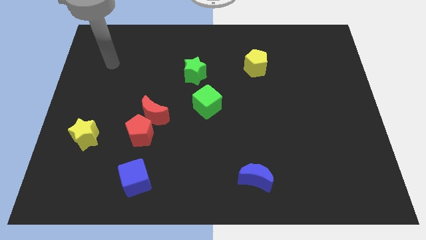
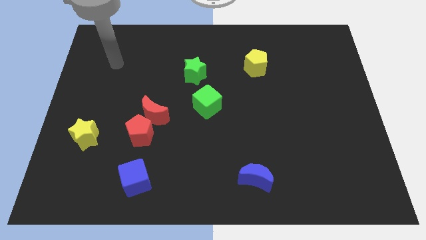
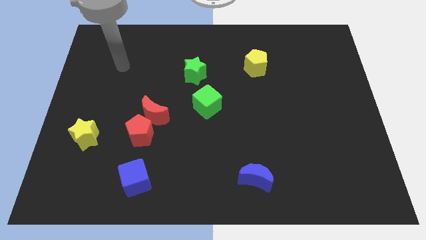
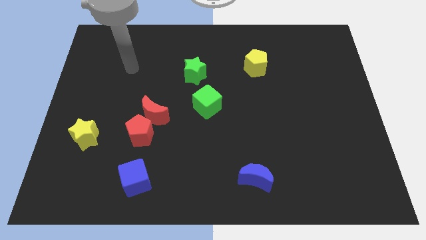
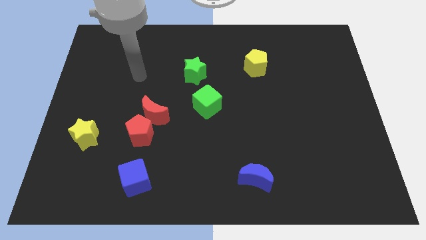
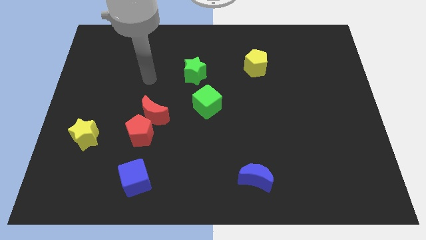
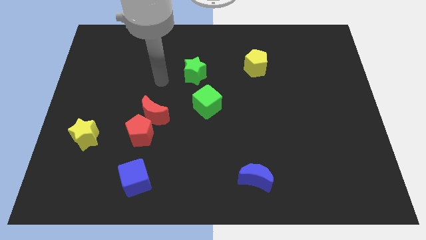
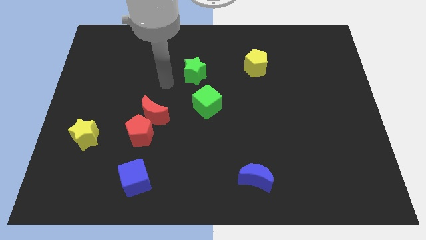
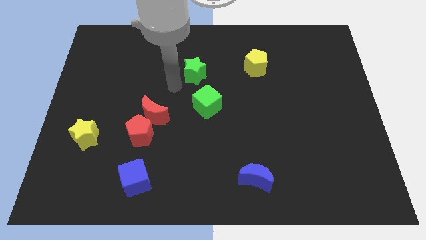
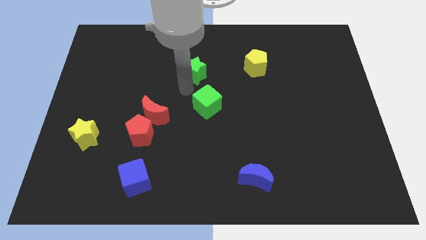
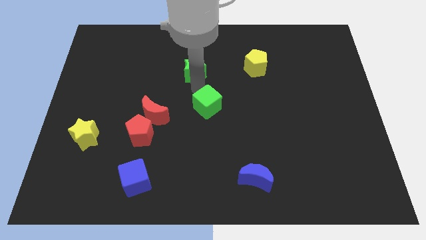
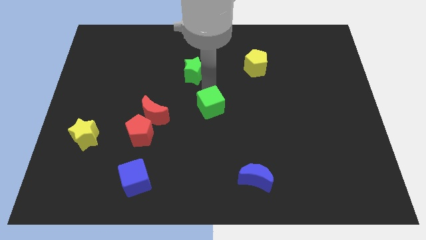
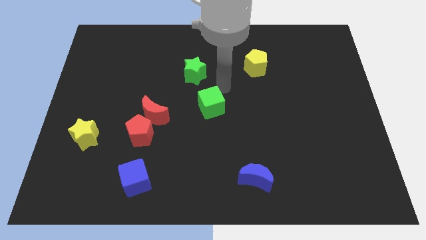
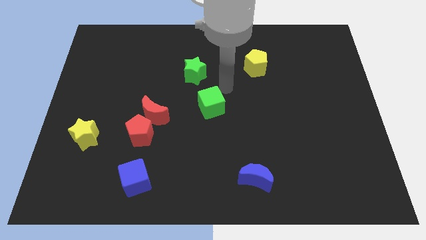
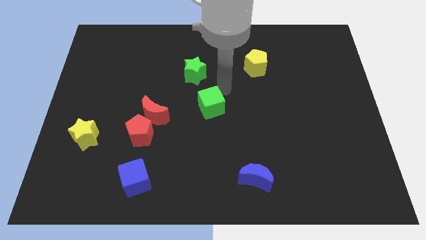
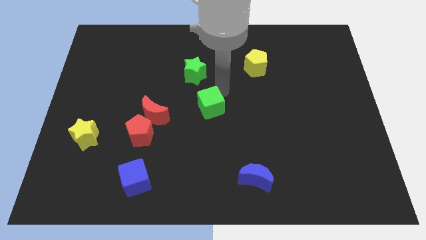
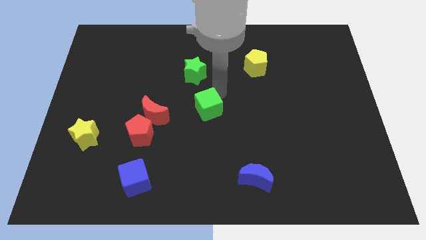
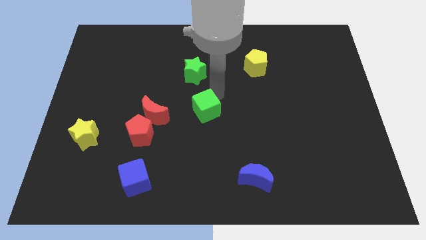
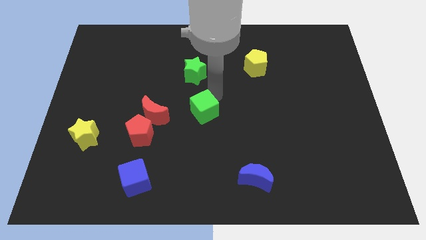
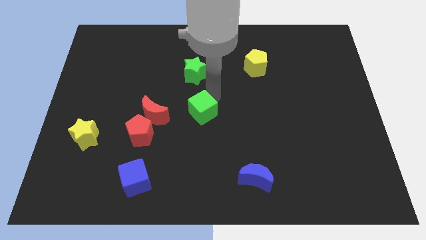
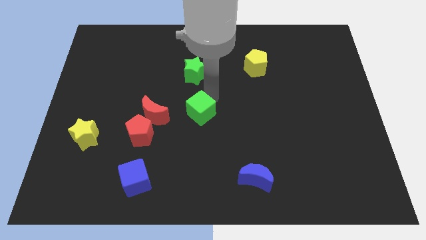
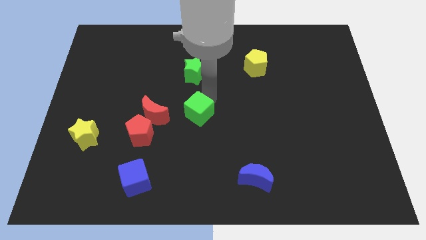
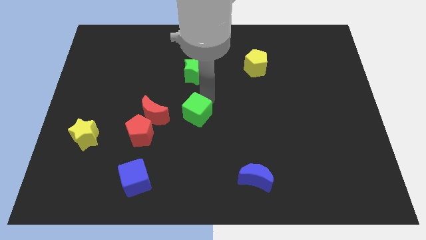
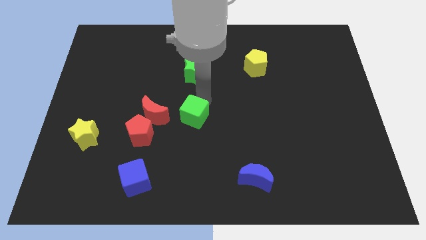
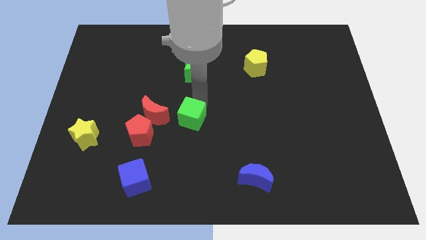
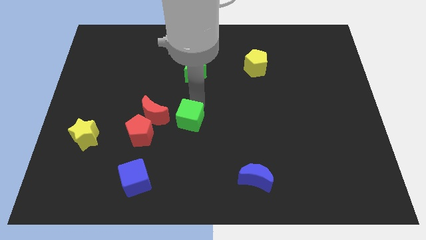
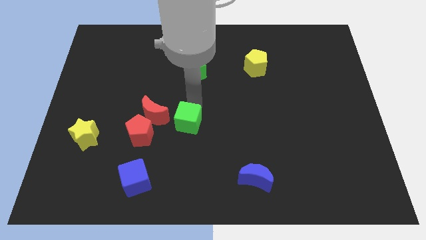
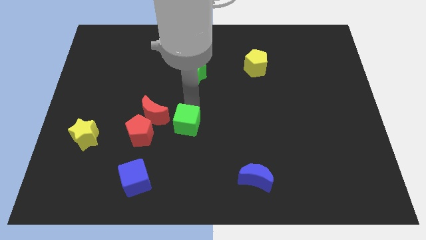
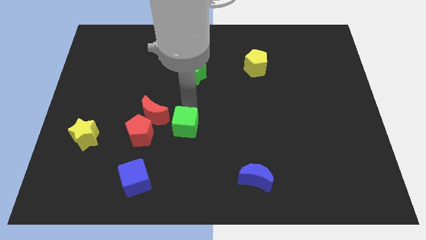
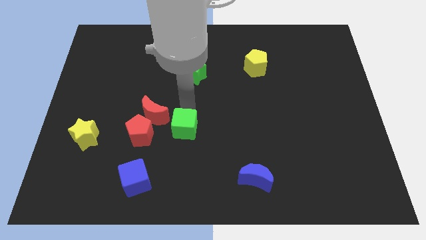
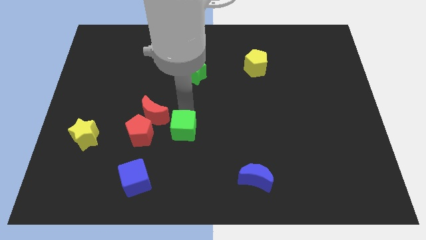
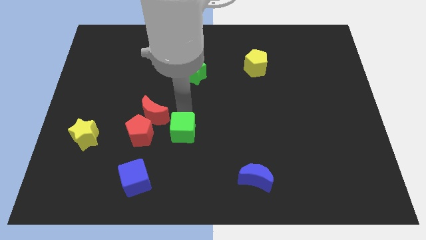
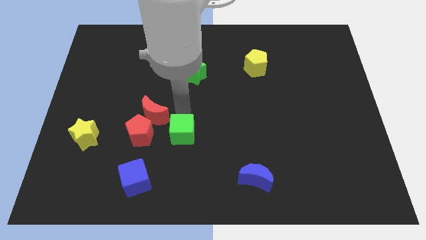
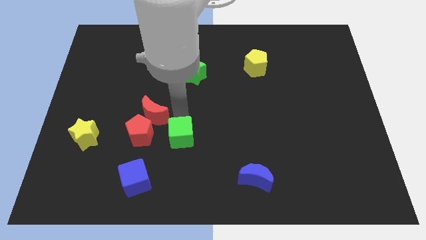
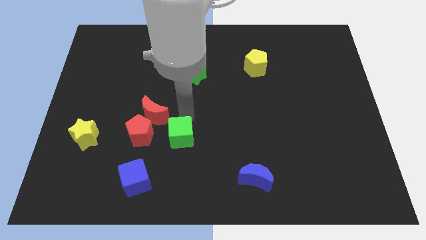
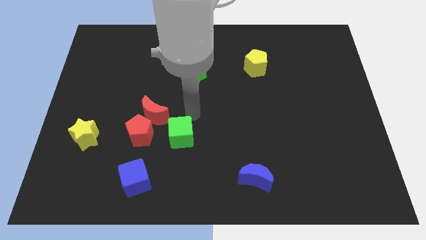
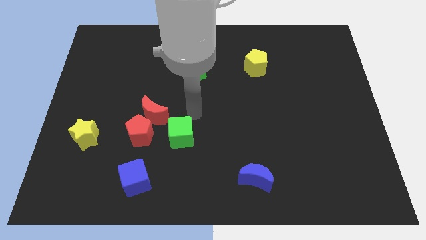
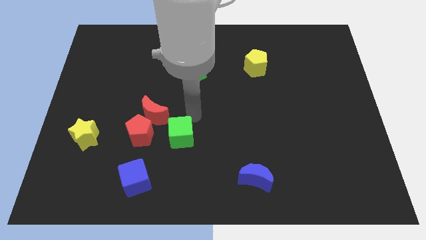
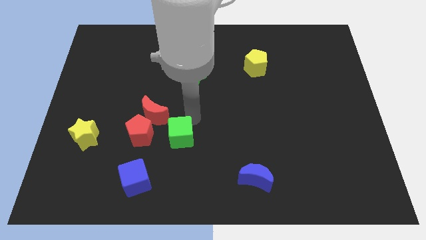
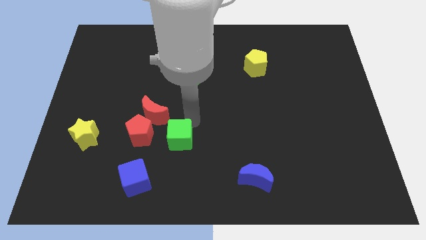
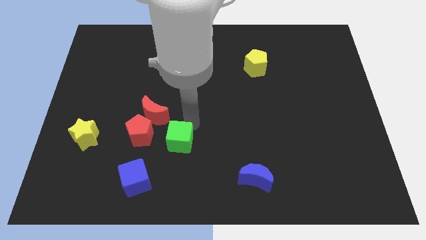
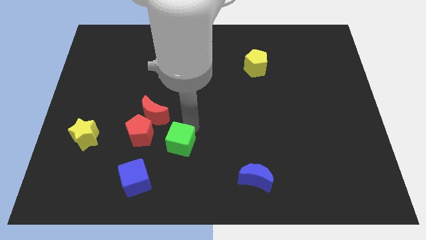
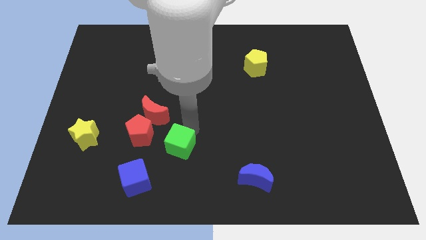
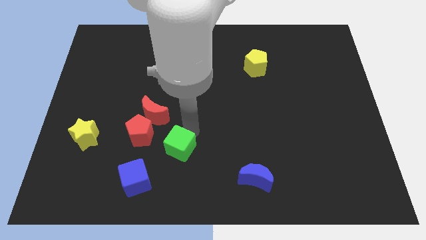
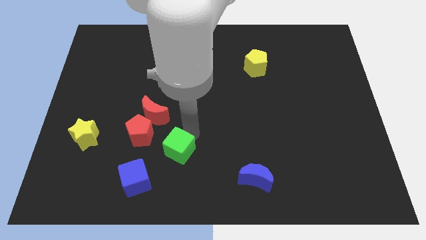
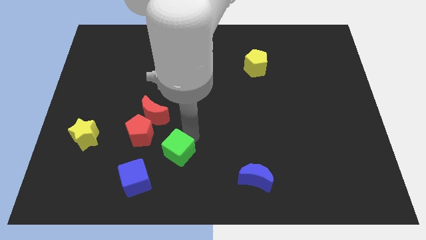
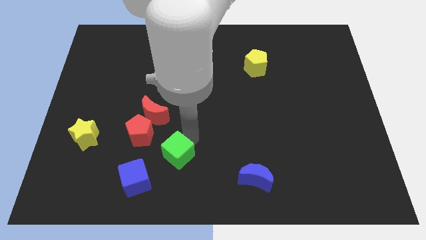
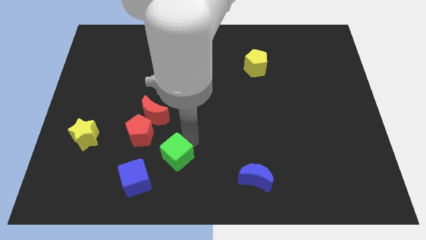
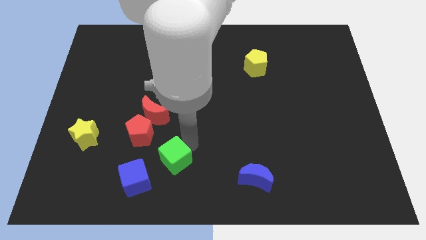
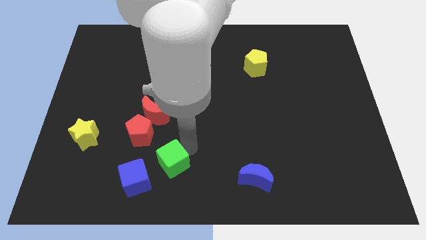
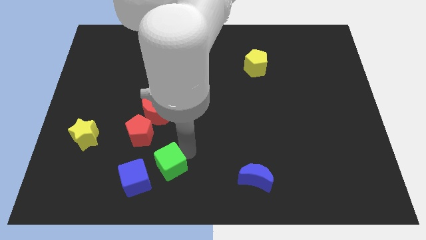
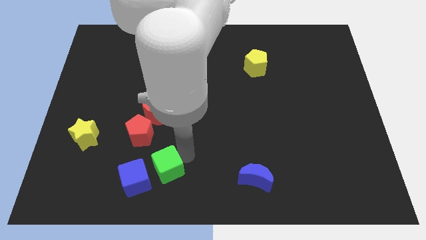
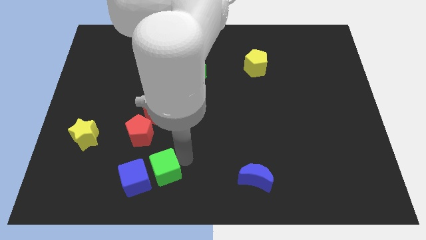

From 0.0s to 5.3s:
move the green cube next to the blue cube

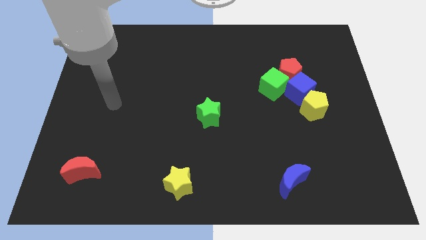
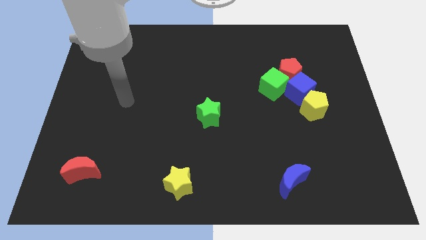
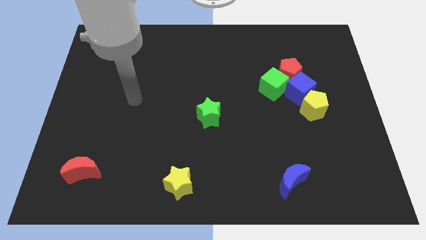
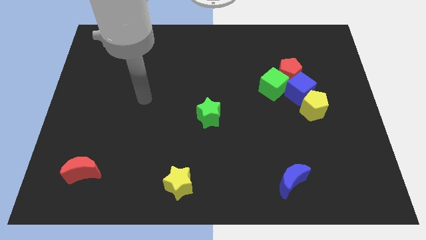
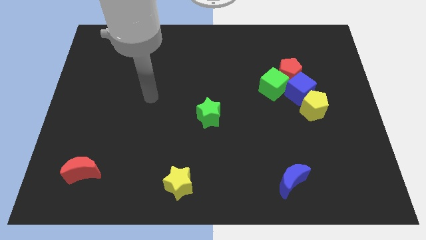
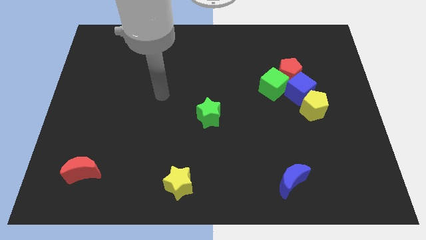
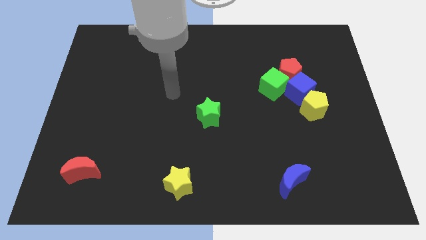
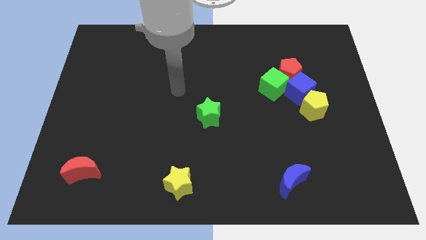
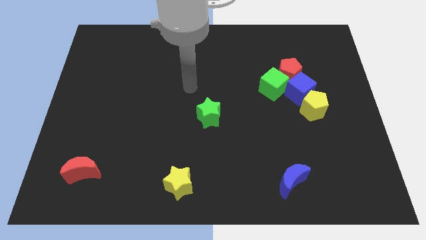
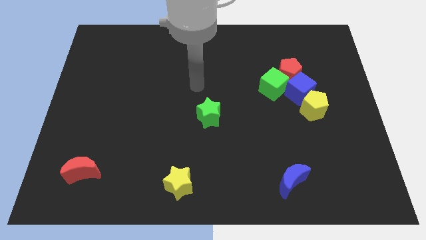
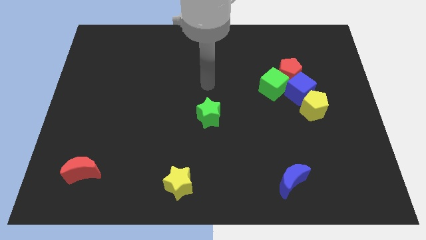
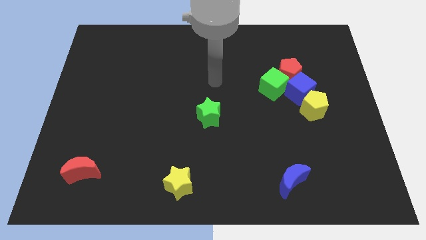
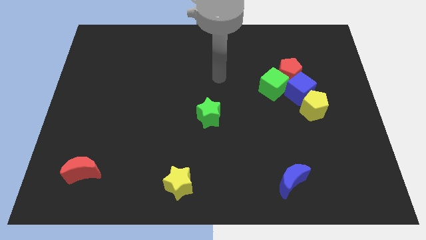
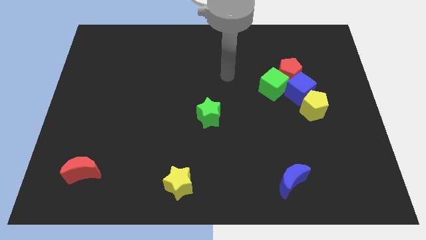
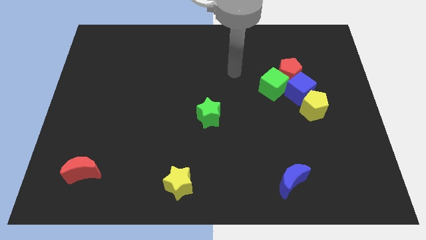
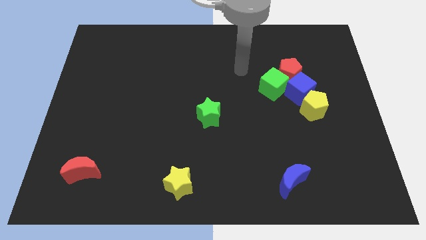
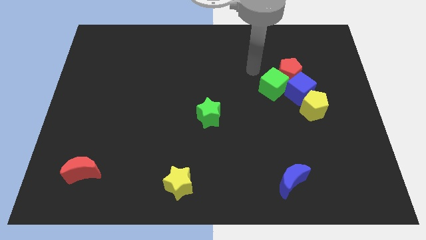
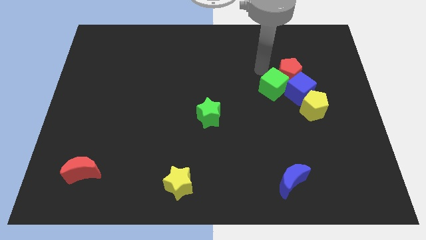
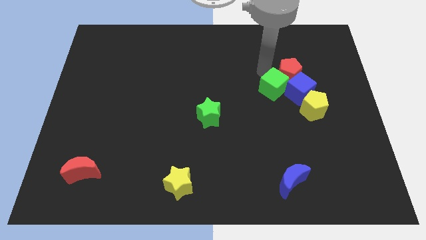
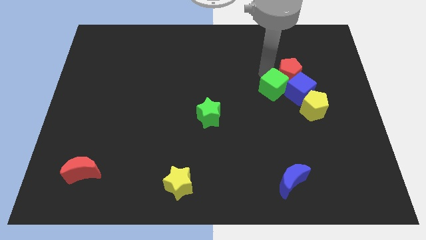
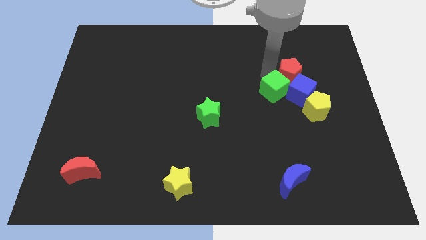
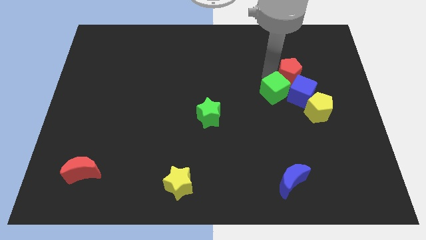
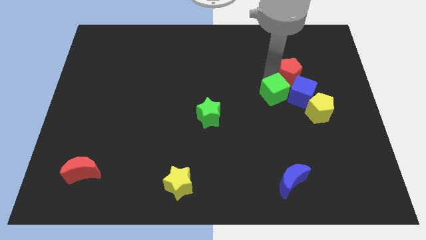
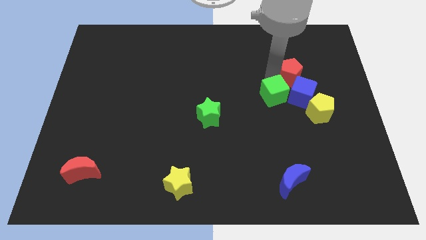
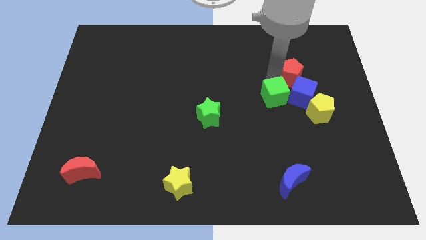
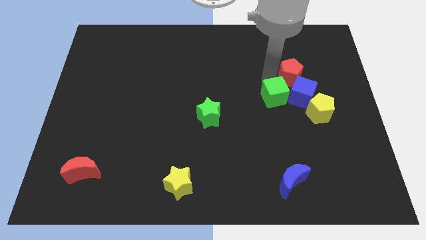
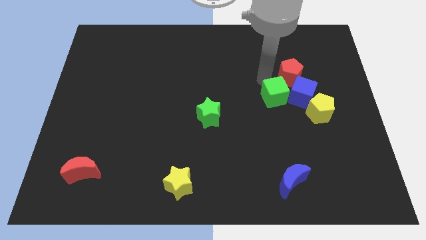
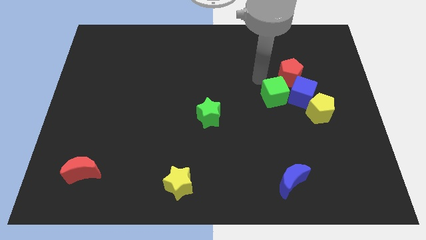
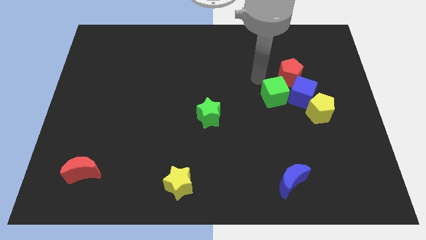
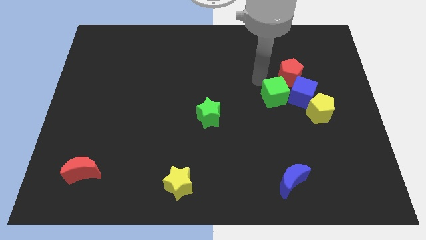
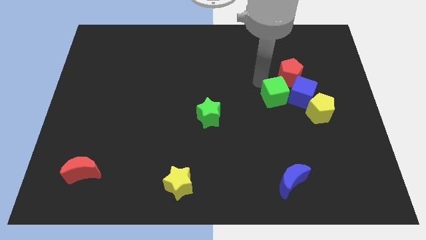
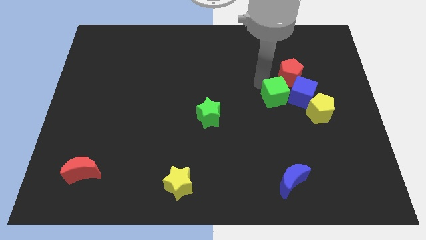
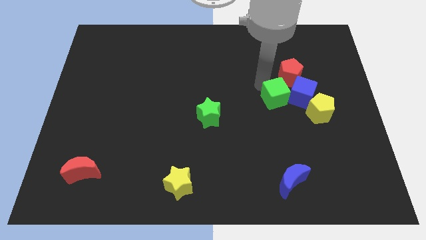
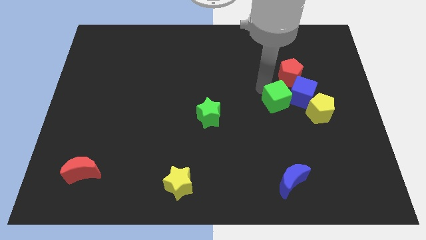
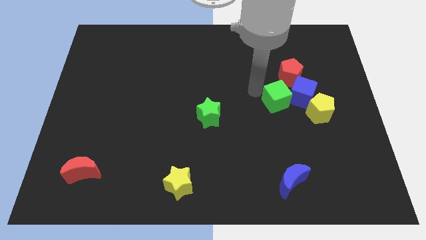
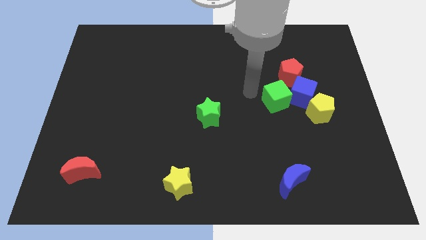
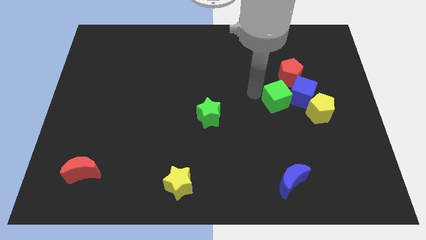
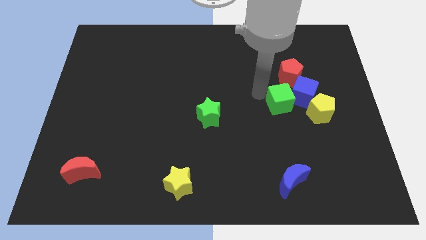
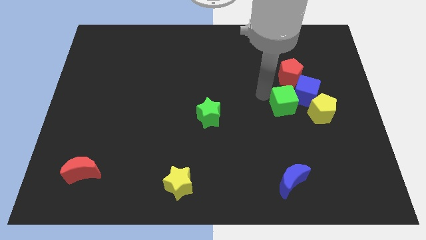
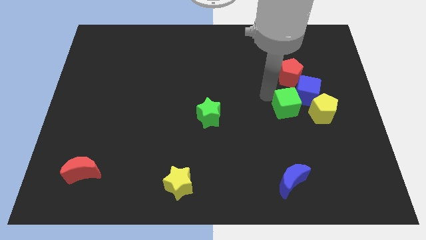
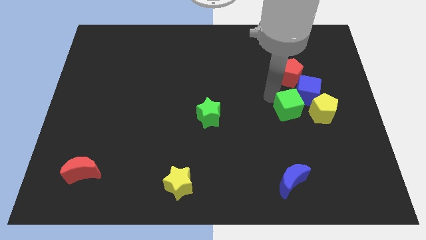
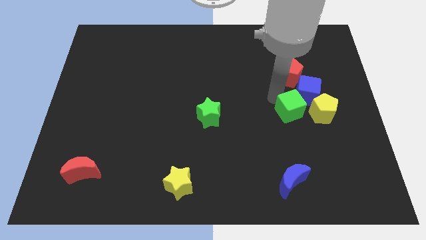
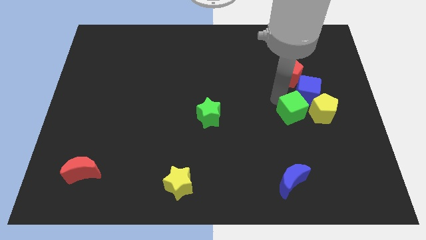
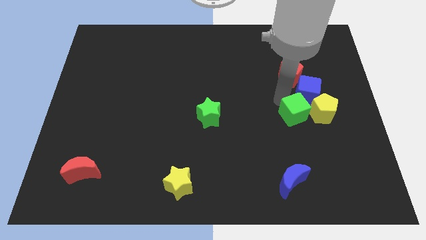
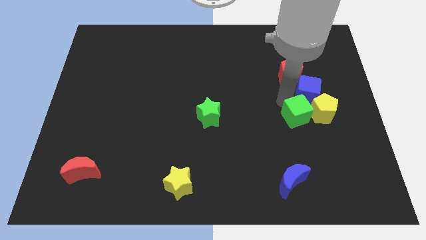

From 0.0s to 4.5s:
push the green cube next to the yellow pentagon
